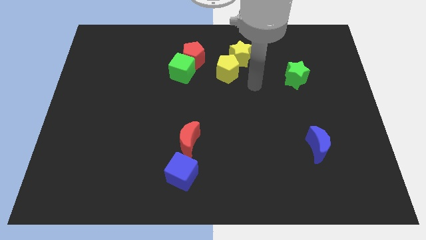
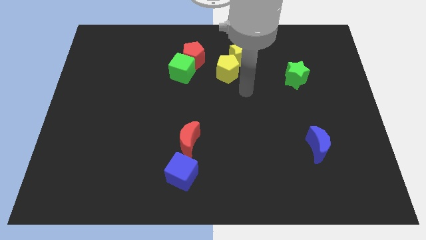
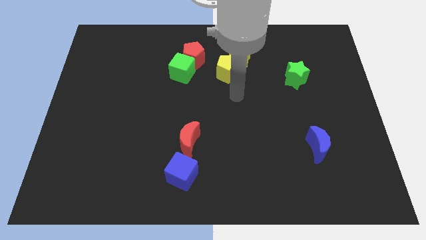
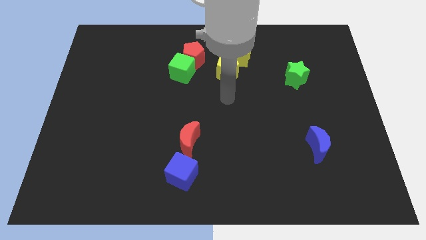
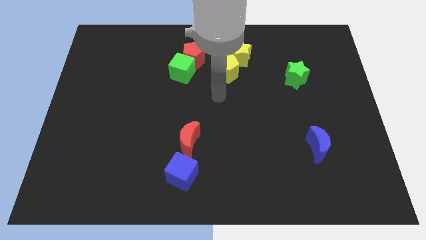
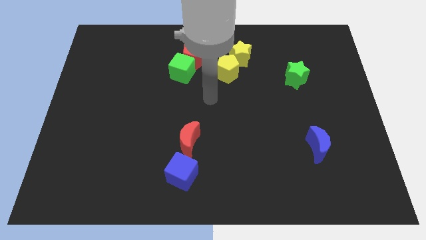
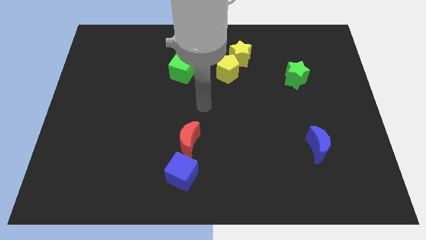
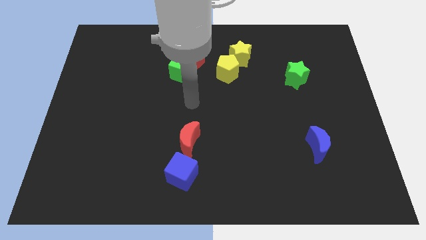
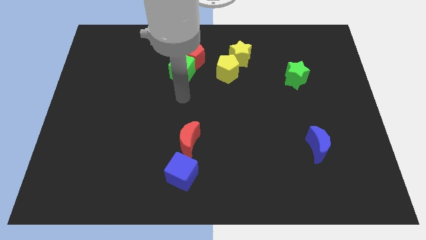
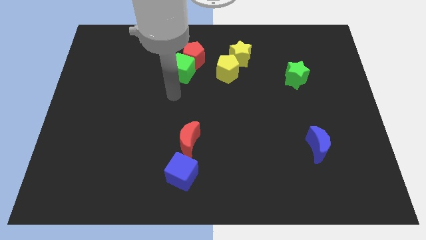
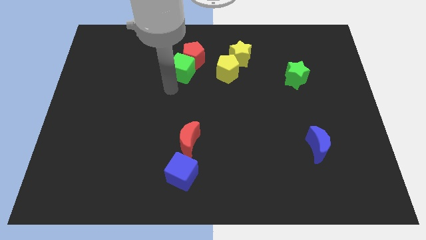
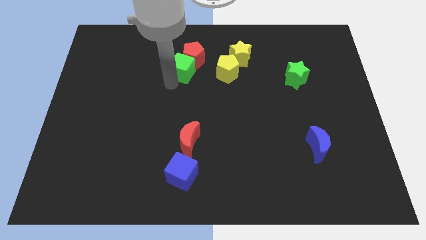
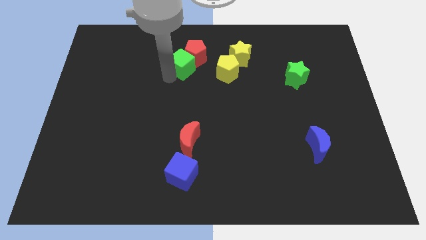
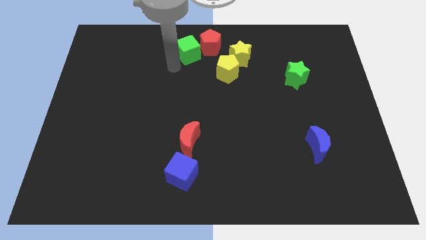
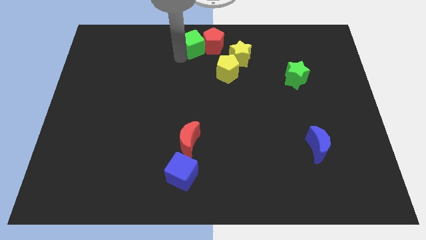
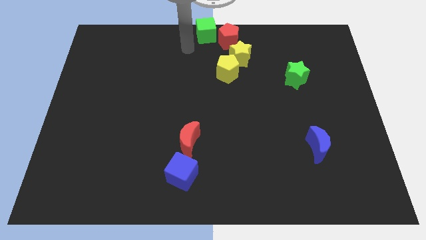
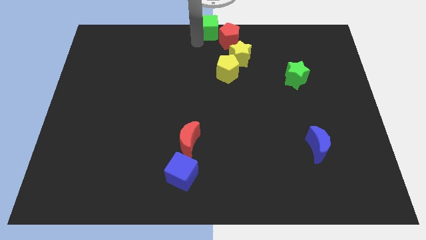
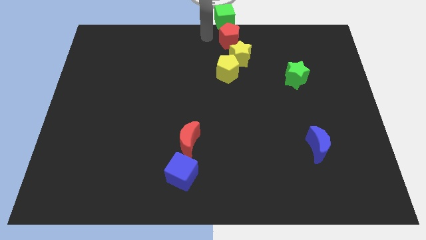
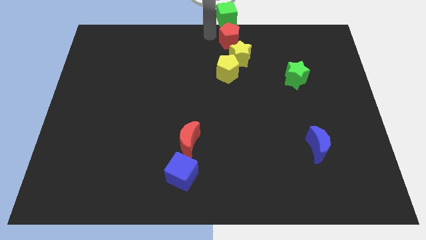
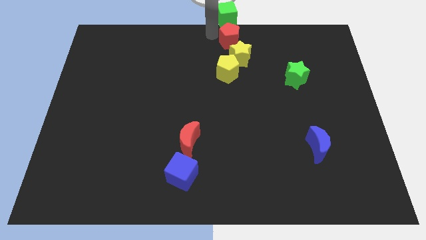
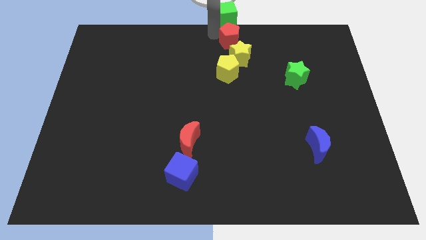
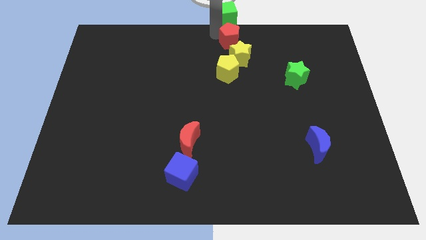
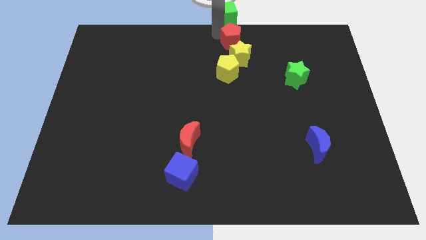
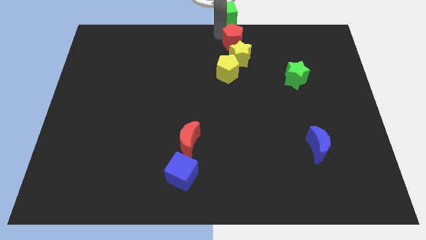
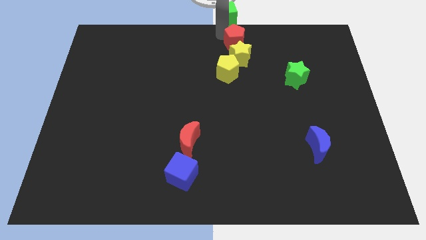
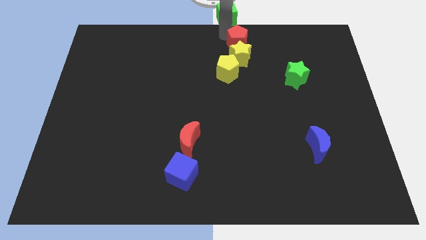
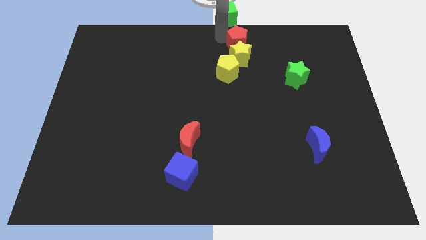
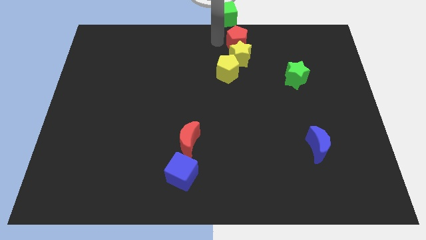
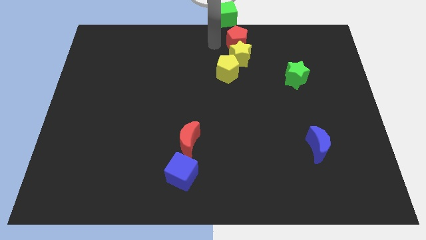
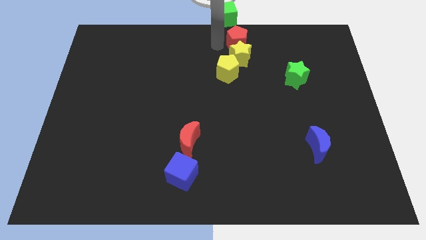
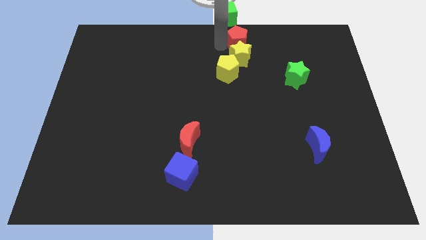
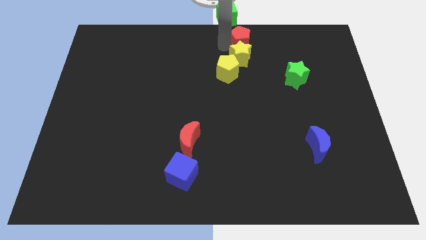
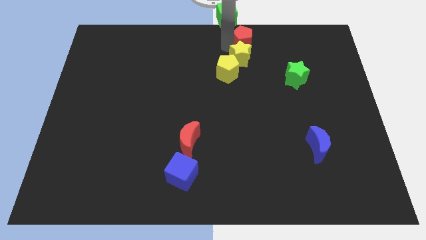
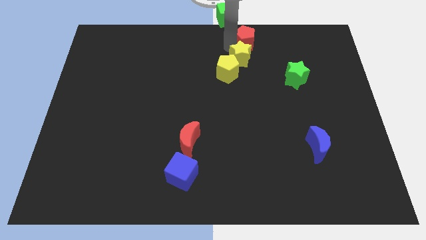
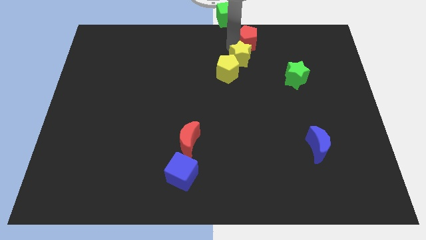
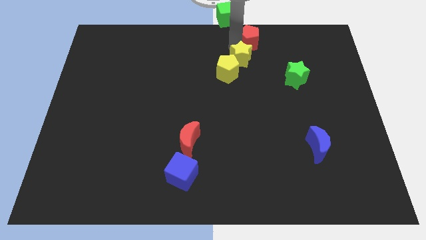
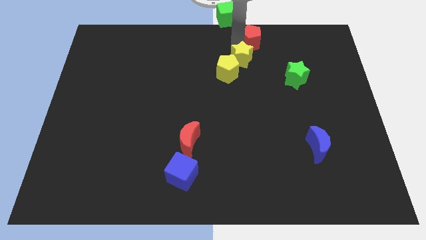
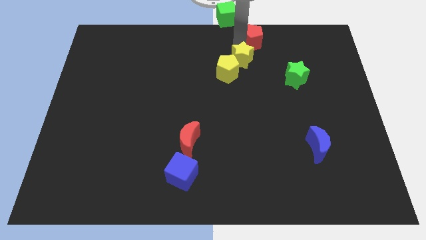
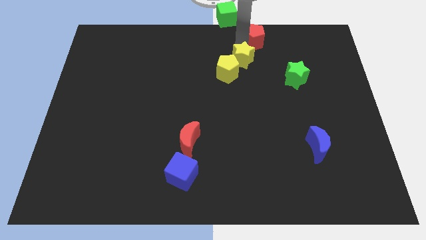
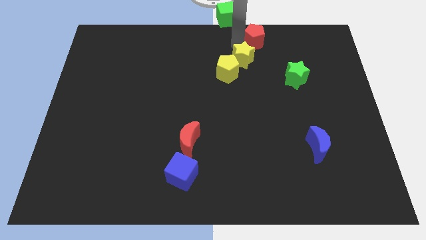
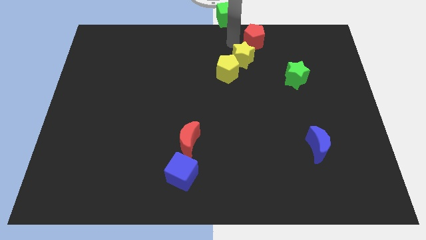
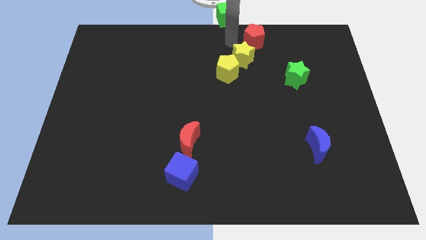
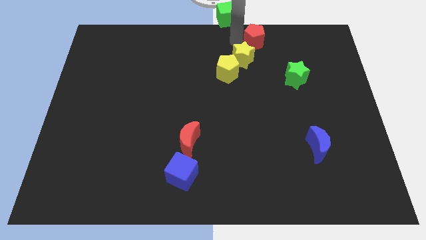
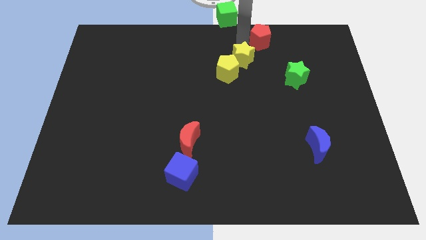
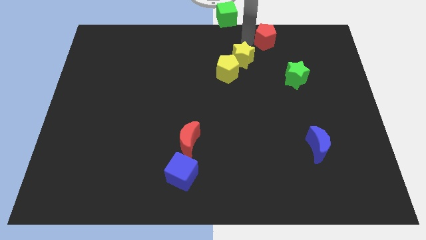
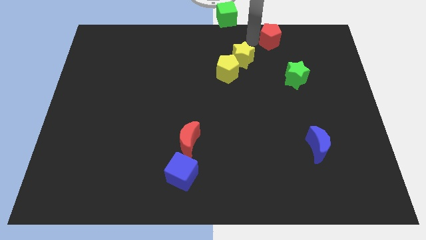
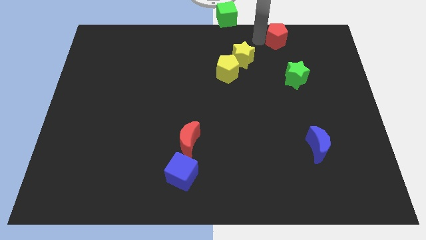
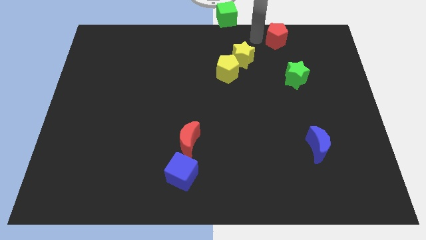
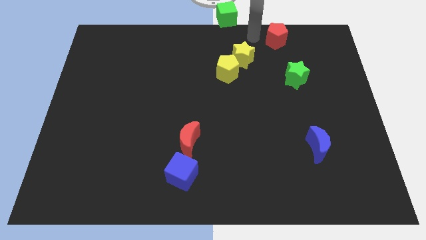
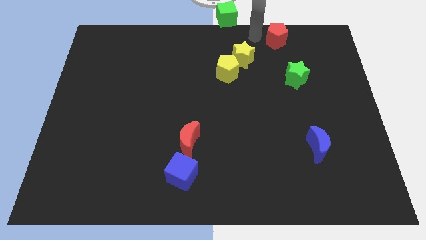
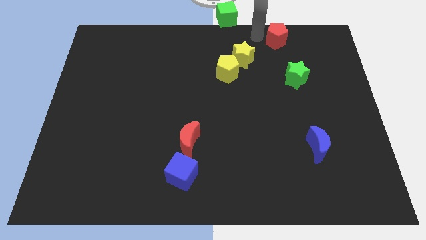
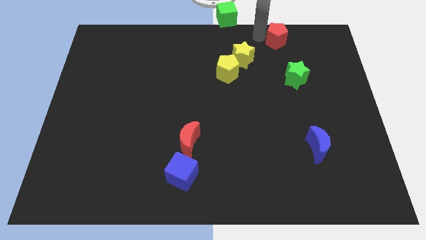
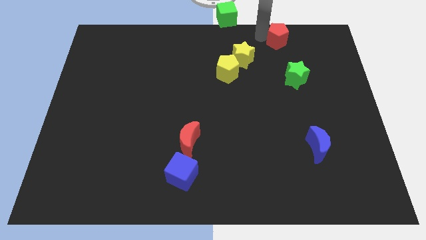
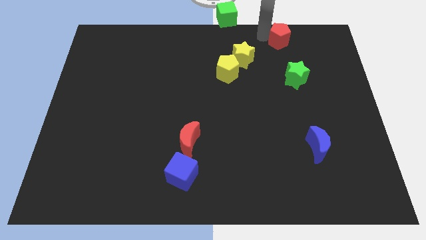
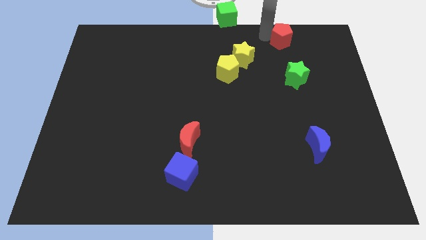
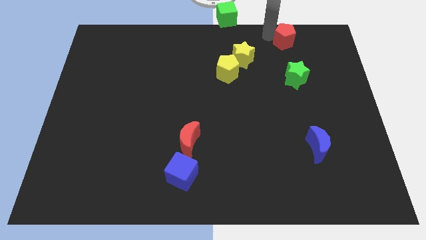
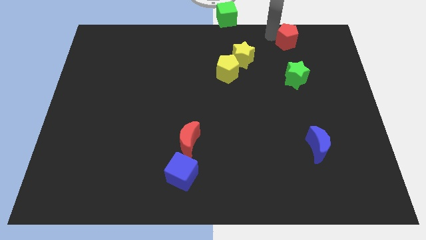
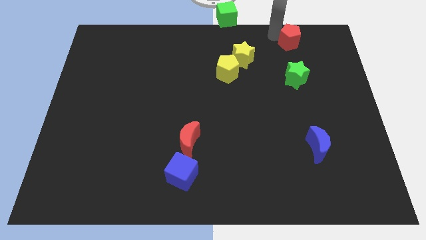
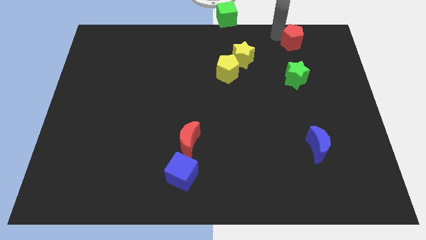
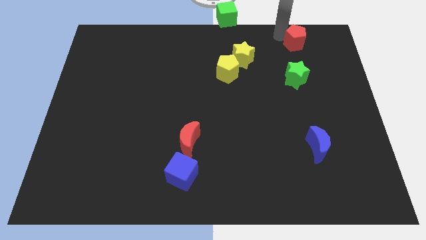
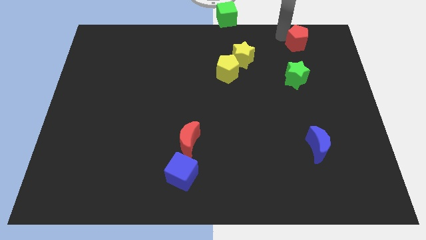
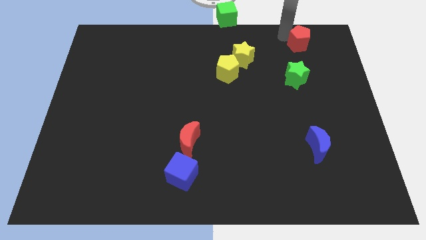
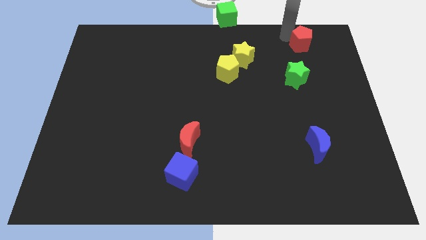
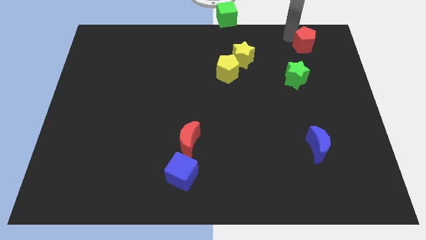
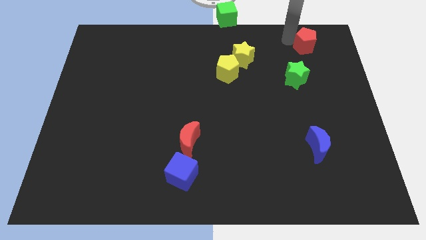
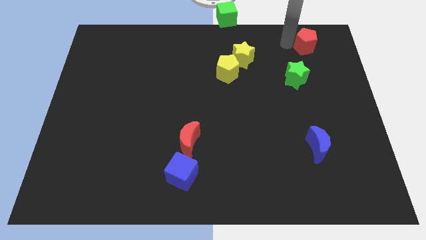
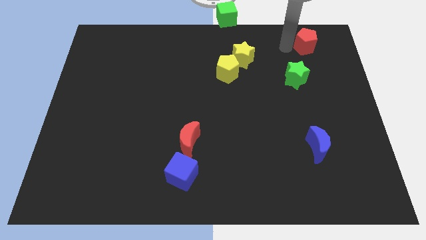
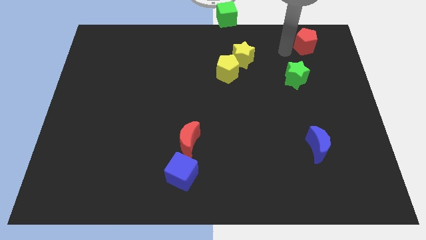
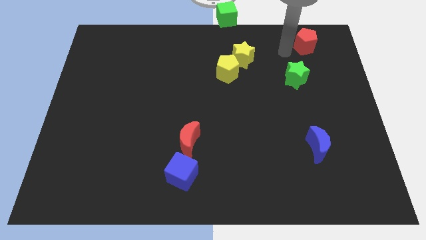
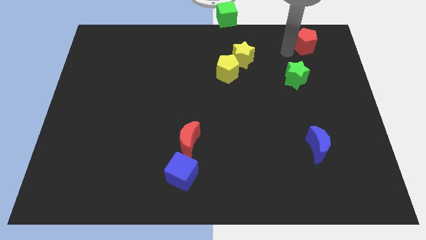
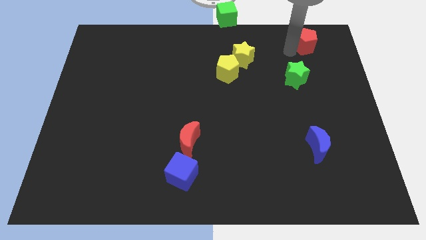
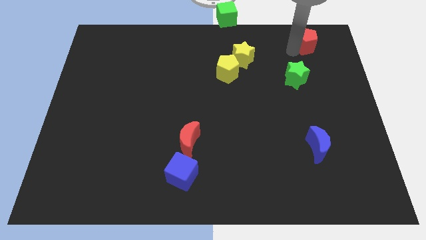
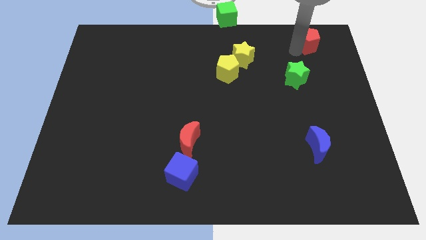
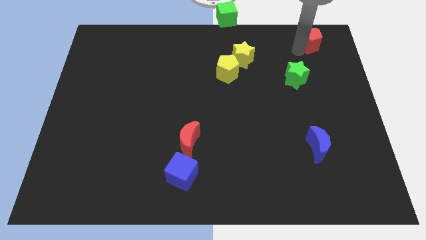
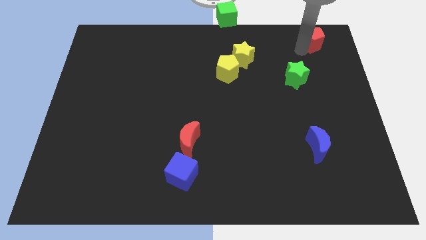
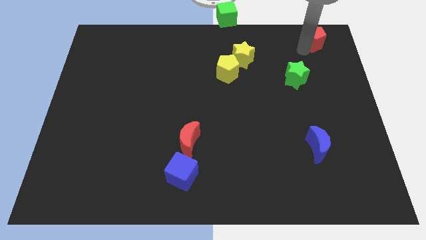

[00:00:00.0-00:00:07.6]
slide the red pentagon to the top right of the board
